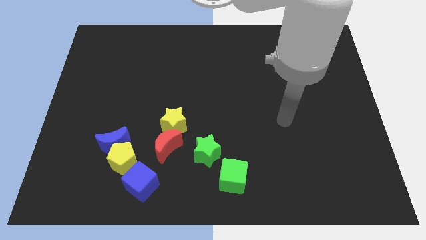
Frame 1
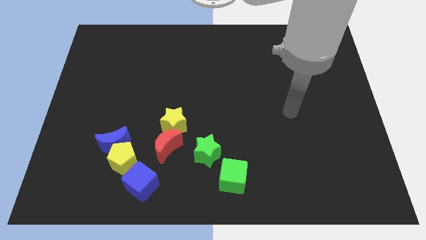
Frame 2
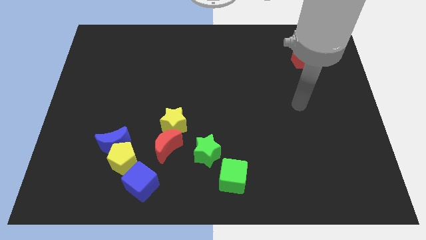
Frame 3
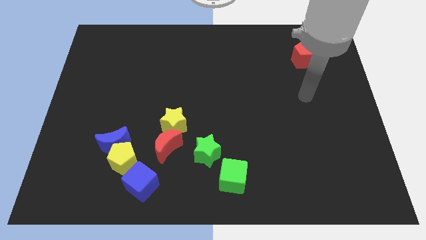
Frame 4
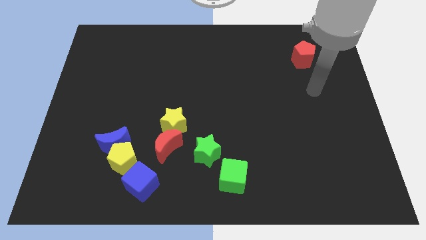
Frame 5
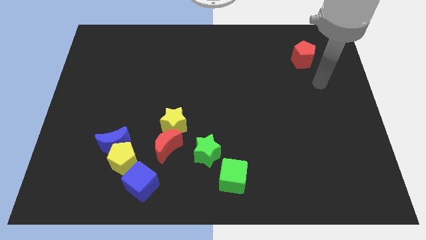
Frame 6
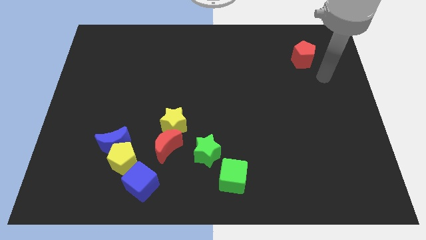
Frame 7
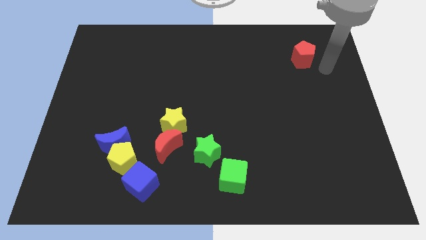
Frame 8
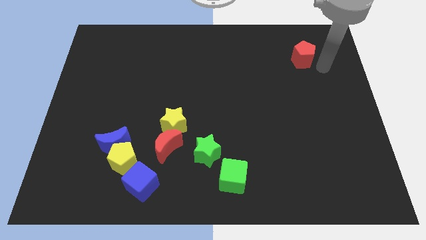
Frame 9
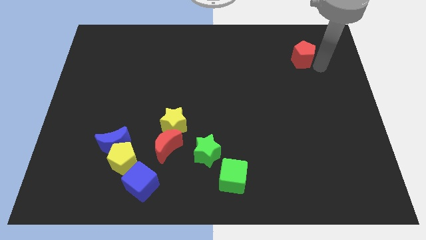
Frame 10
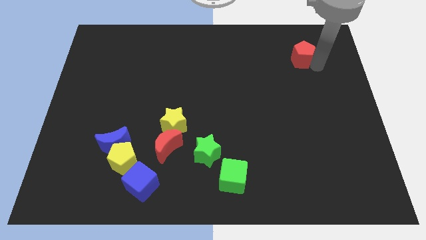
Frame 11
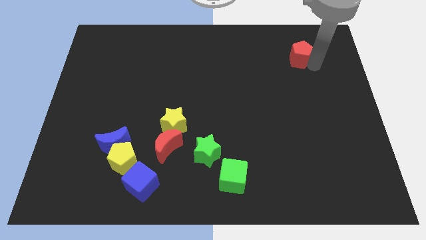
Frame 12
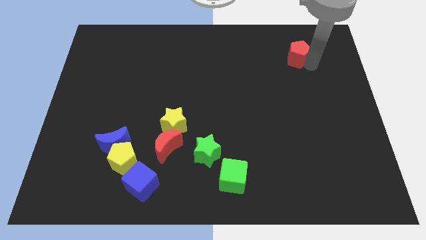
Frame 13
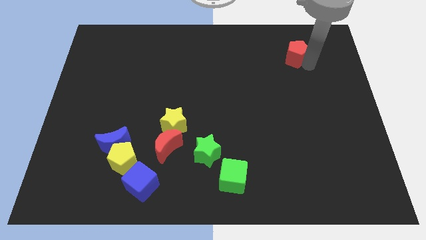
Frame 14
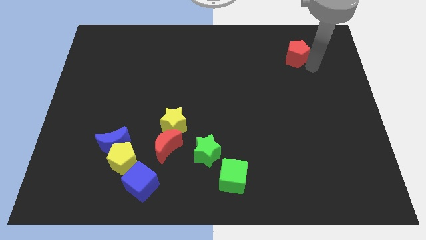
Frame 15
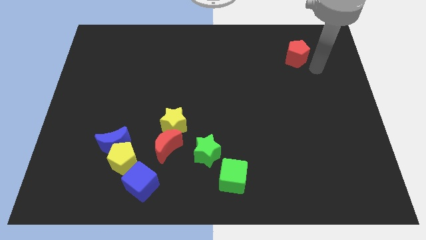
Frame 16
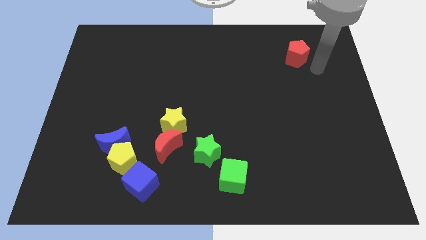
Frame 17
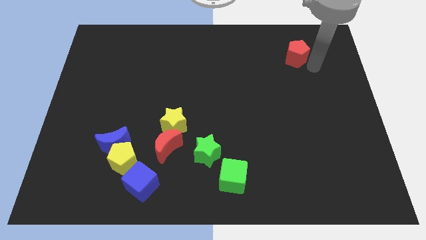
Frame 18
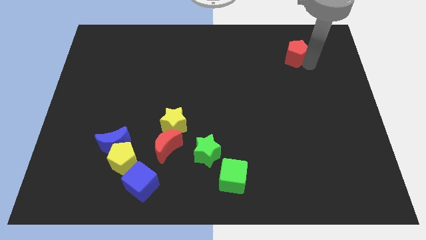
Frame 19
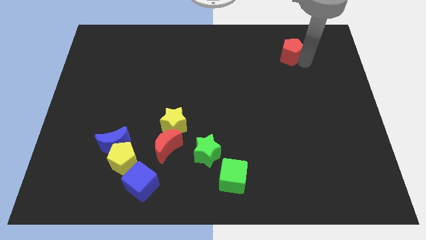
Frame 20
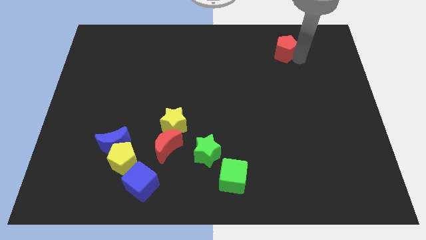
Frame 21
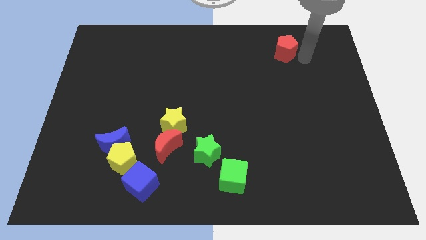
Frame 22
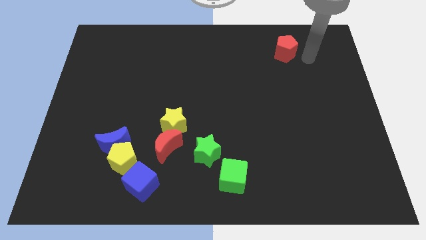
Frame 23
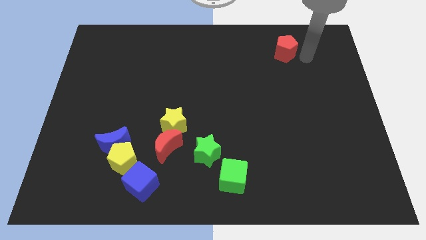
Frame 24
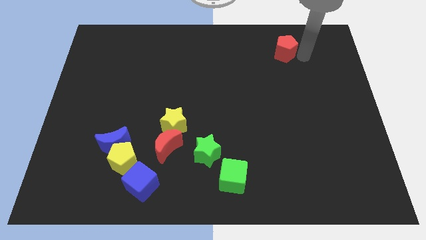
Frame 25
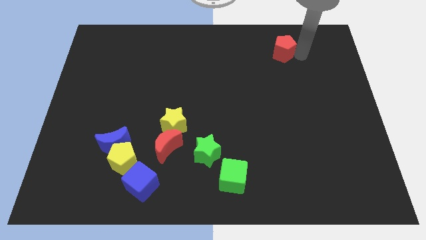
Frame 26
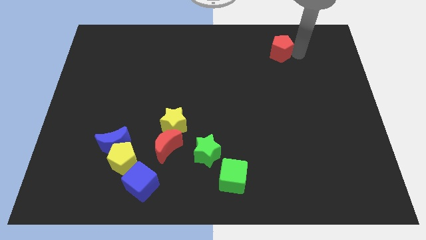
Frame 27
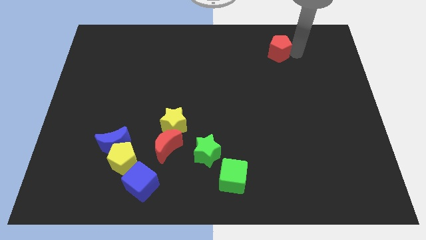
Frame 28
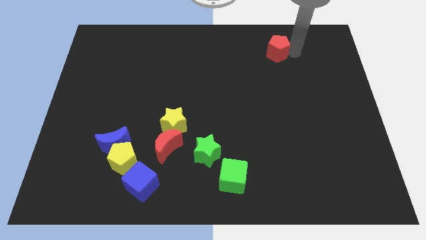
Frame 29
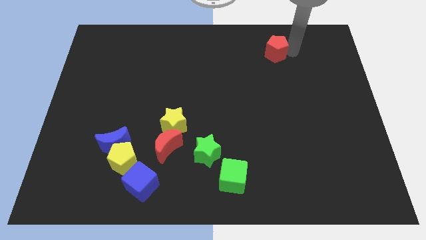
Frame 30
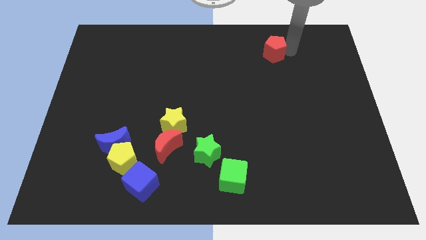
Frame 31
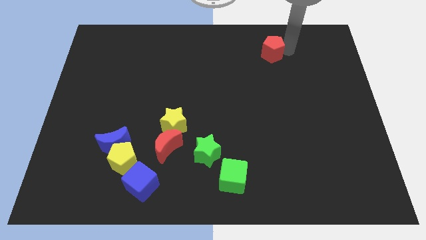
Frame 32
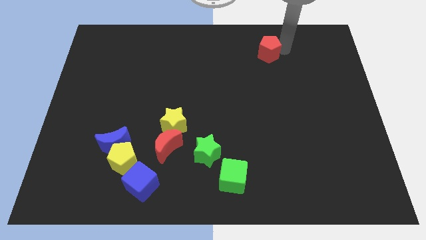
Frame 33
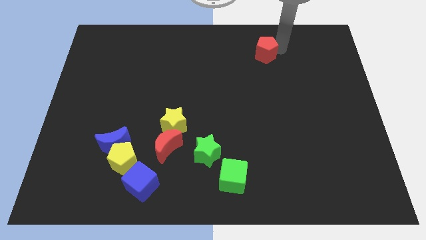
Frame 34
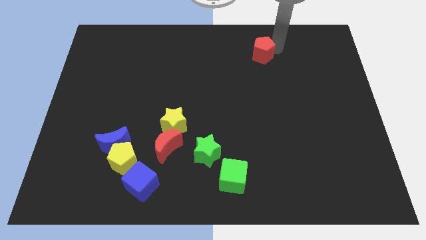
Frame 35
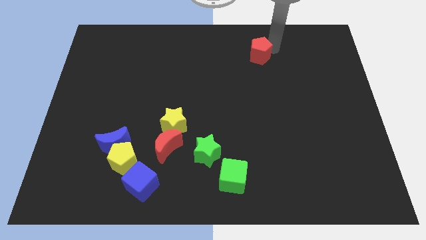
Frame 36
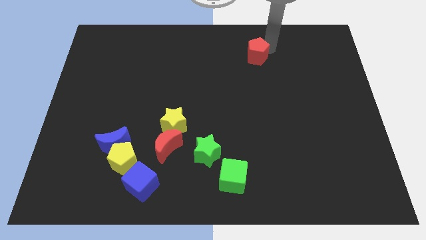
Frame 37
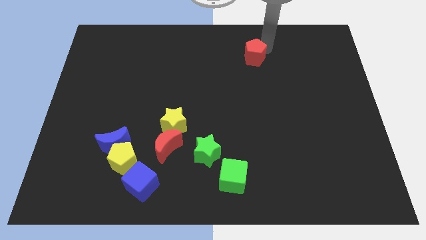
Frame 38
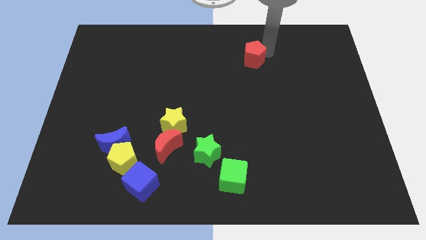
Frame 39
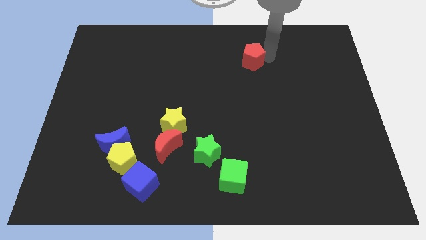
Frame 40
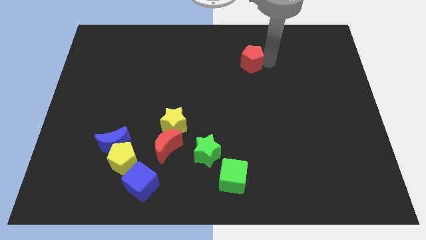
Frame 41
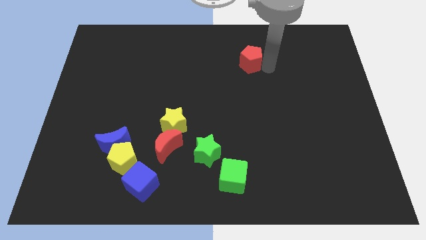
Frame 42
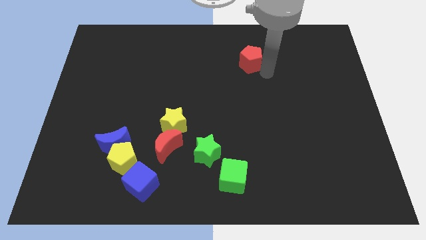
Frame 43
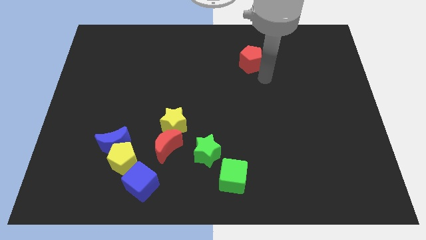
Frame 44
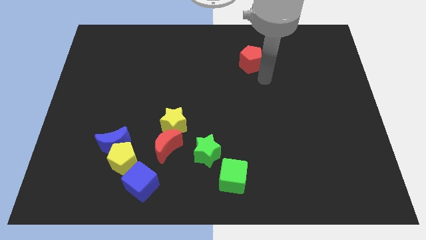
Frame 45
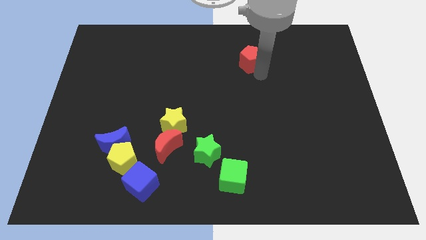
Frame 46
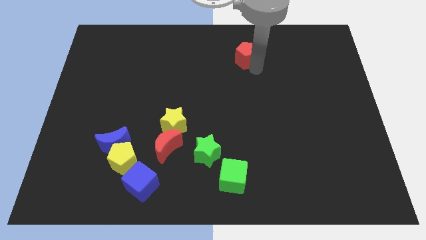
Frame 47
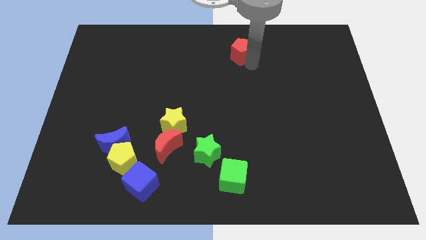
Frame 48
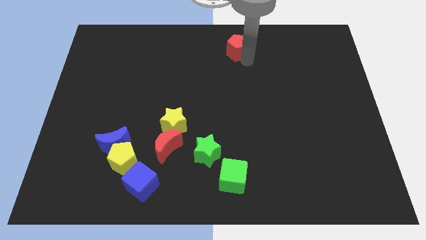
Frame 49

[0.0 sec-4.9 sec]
put the red pentagon to the top side

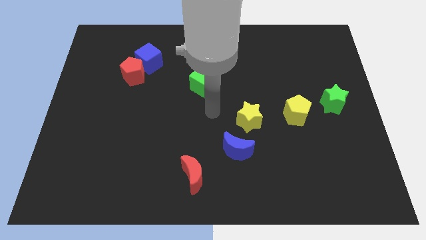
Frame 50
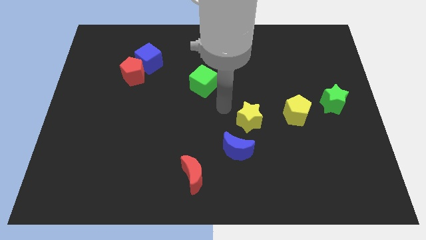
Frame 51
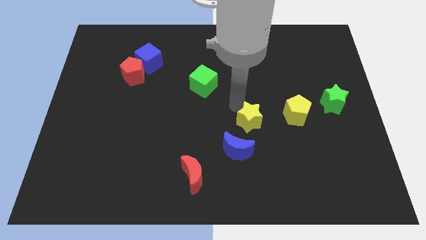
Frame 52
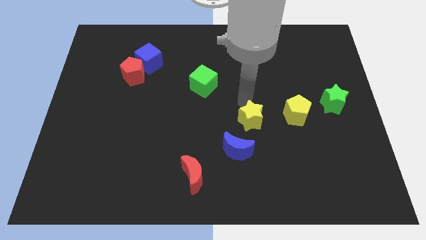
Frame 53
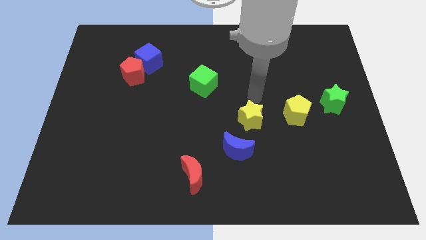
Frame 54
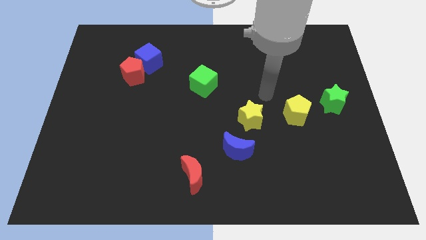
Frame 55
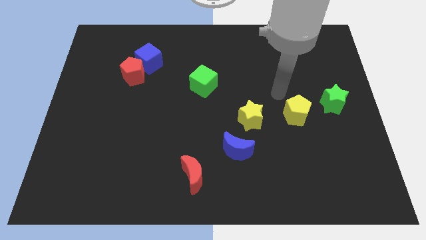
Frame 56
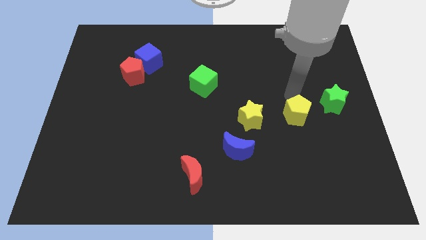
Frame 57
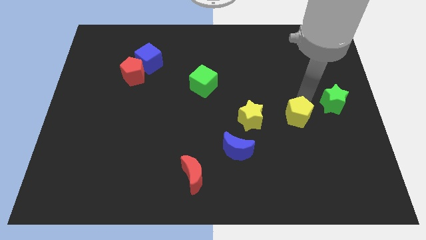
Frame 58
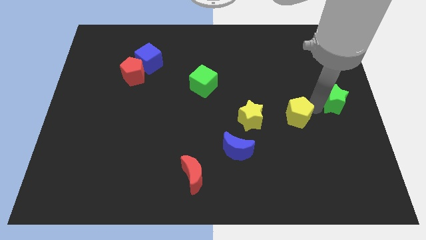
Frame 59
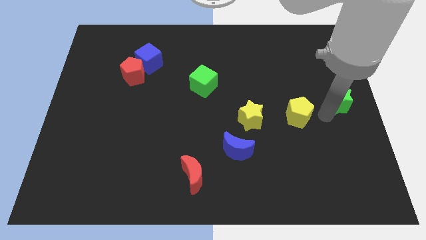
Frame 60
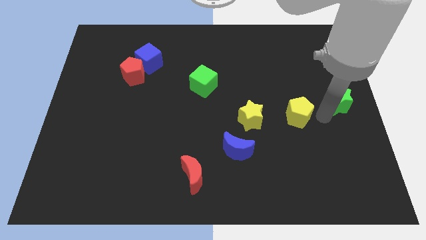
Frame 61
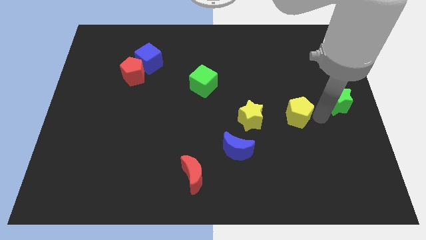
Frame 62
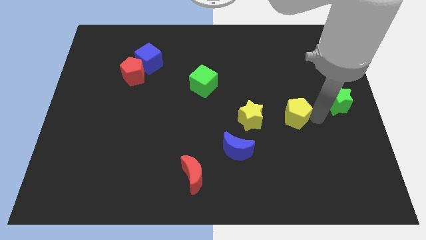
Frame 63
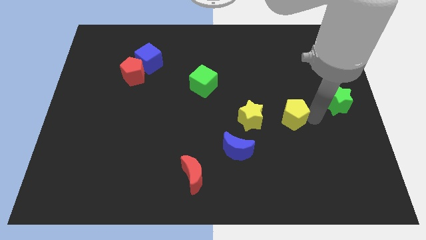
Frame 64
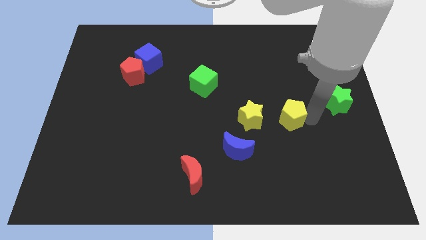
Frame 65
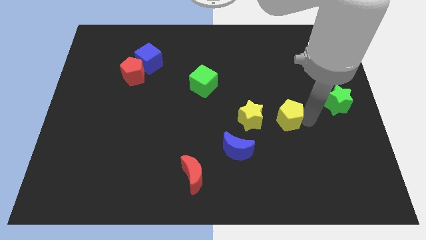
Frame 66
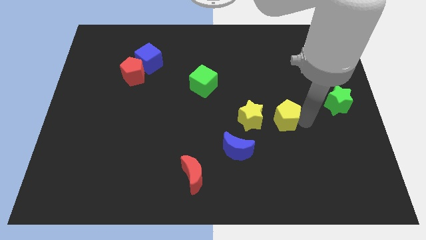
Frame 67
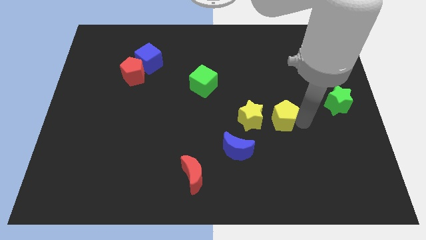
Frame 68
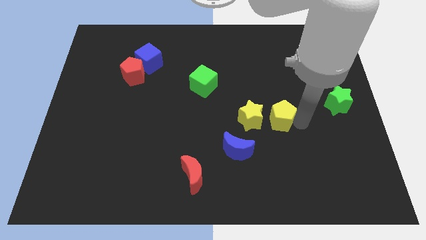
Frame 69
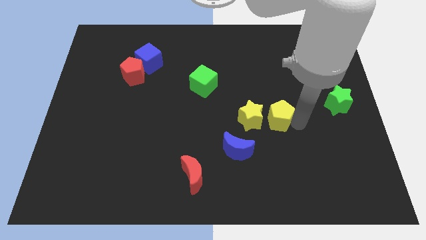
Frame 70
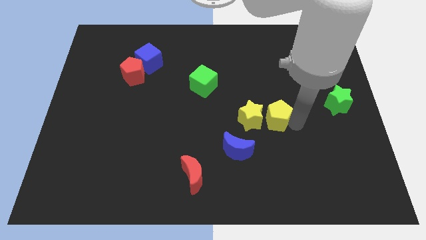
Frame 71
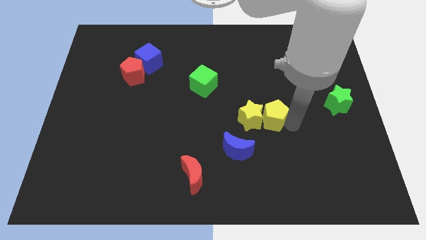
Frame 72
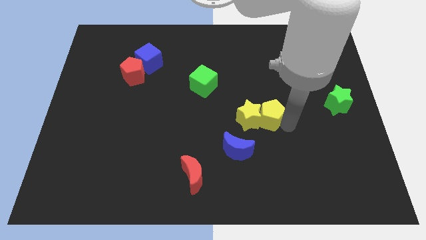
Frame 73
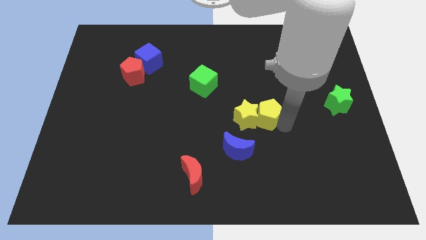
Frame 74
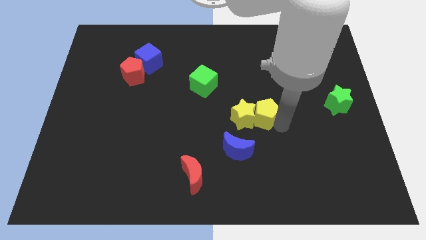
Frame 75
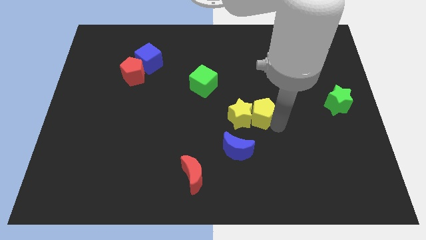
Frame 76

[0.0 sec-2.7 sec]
push the yellow pentagon to the middle

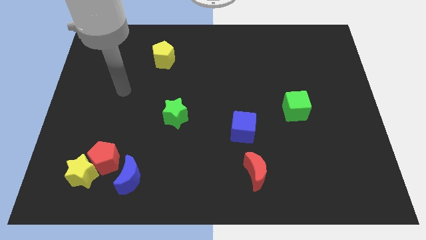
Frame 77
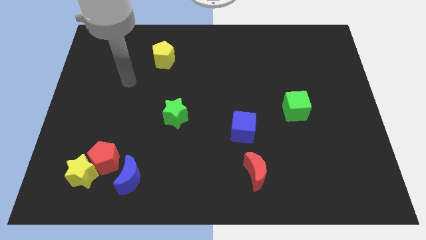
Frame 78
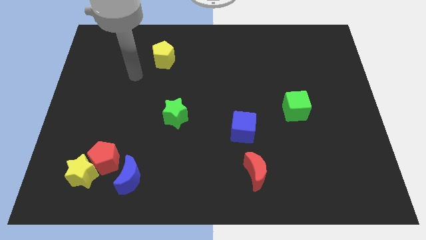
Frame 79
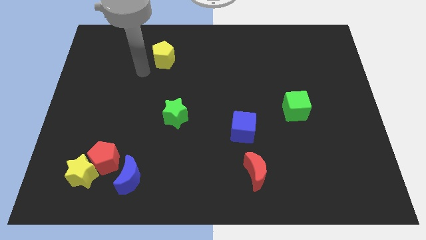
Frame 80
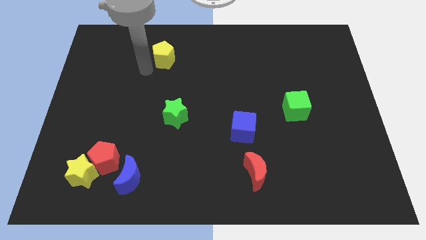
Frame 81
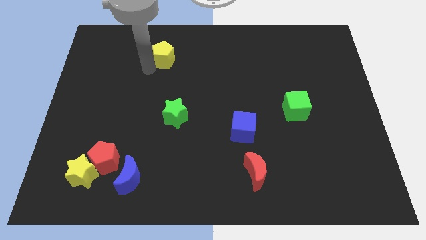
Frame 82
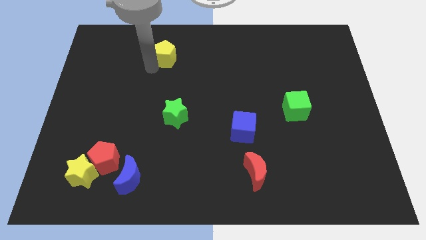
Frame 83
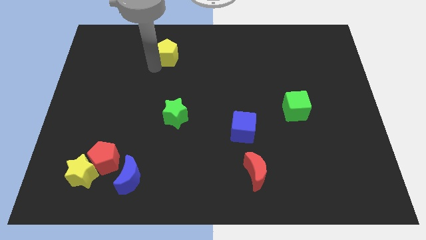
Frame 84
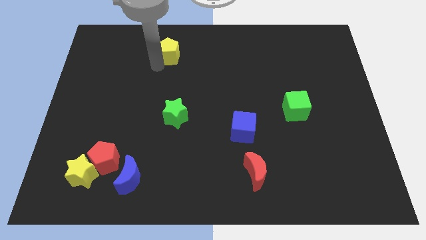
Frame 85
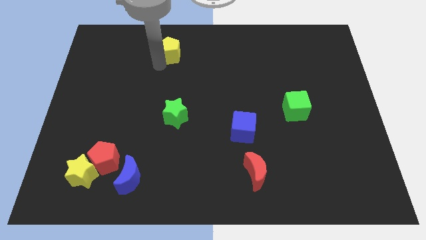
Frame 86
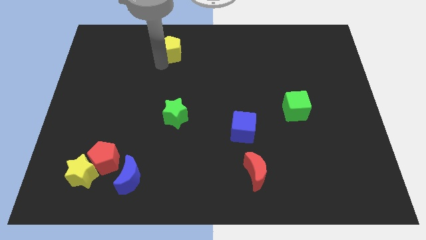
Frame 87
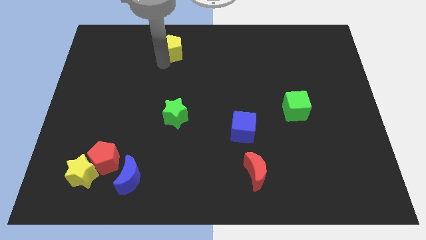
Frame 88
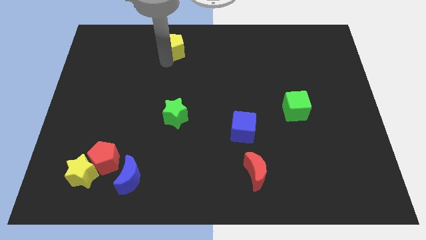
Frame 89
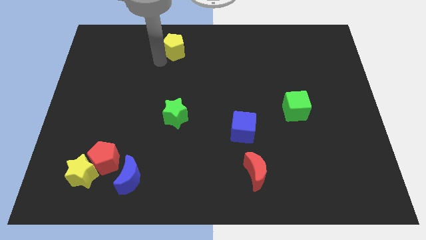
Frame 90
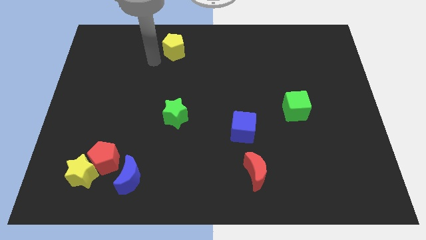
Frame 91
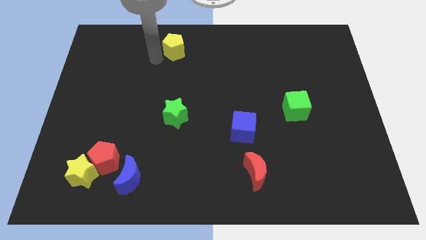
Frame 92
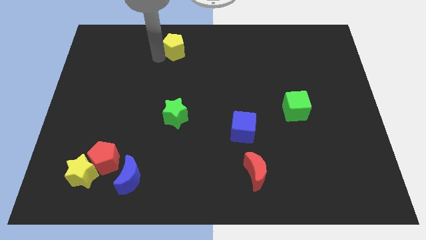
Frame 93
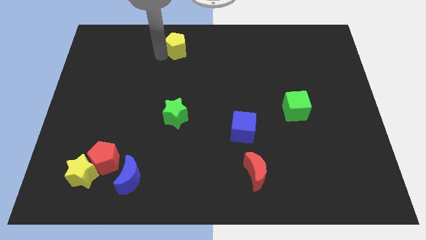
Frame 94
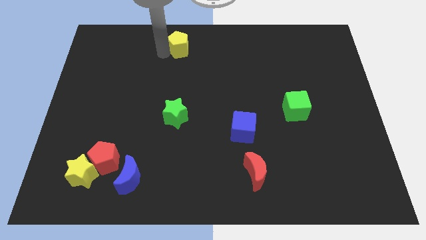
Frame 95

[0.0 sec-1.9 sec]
move the yellow pentagon to the top side
